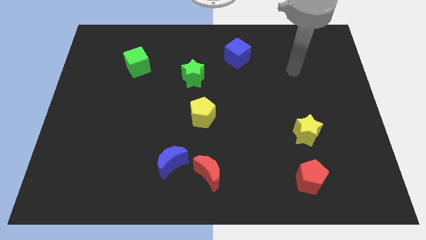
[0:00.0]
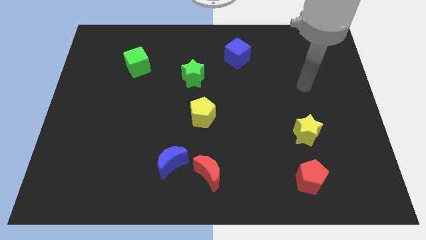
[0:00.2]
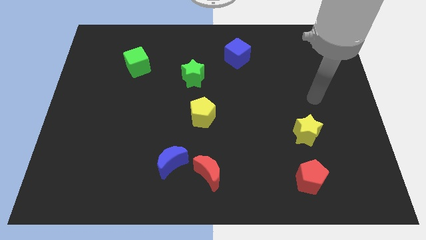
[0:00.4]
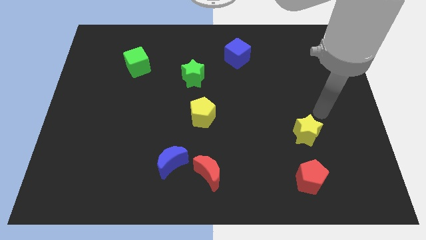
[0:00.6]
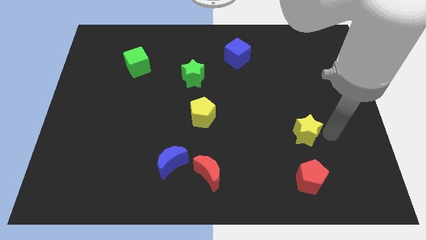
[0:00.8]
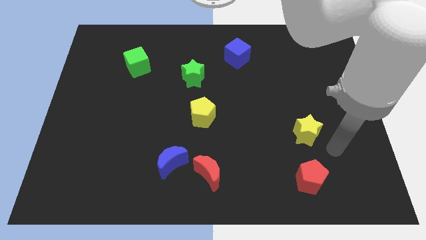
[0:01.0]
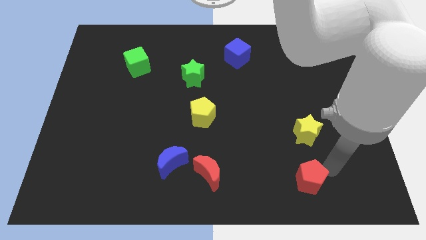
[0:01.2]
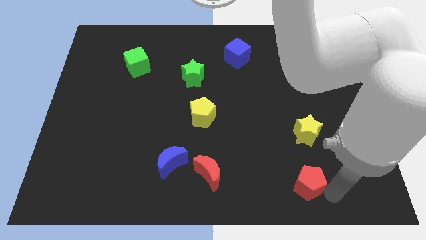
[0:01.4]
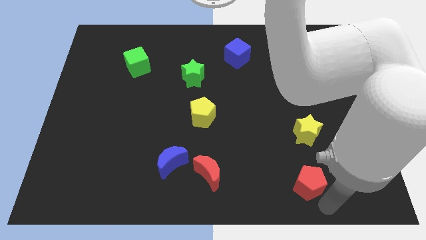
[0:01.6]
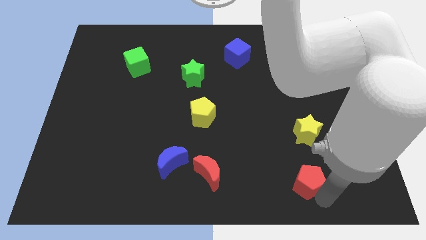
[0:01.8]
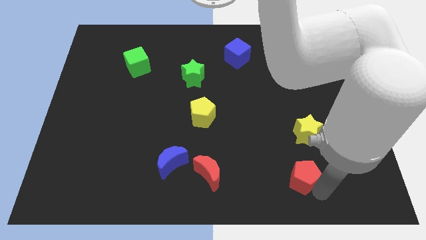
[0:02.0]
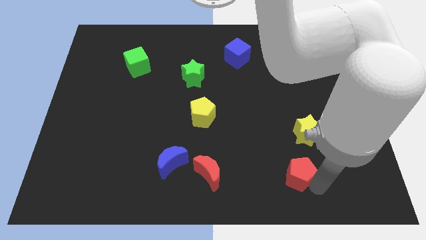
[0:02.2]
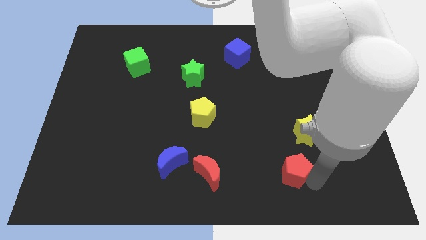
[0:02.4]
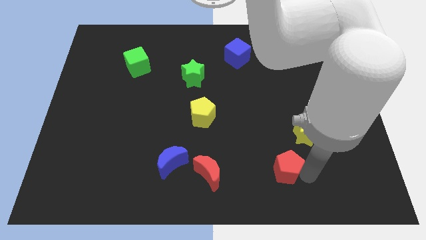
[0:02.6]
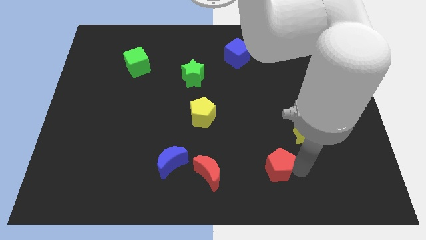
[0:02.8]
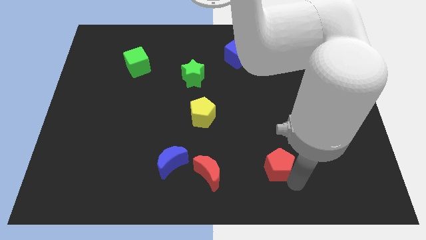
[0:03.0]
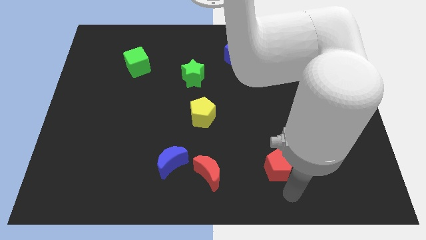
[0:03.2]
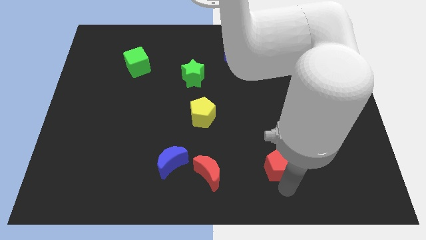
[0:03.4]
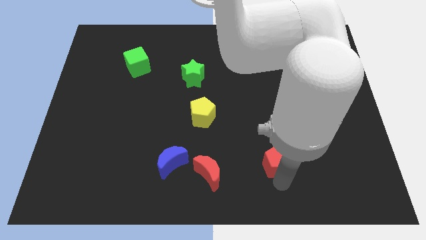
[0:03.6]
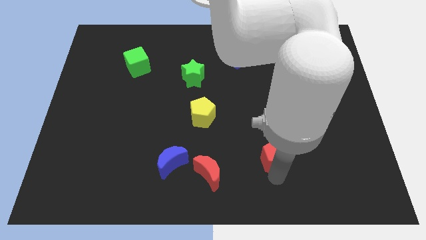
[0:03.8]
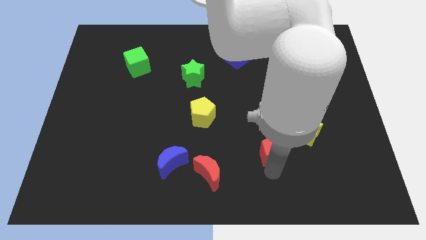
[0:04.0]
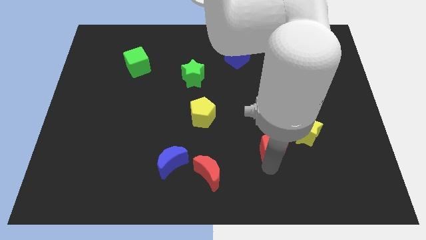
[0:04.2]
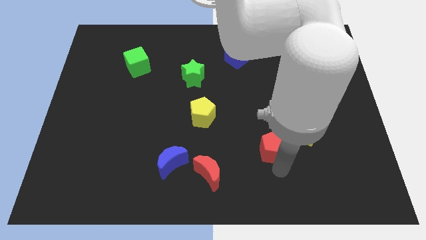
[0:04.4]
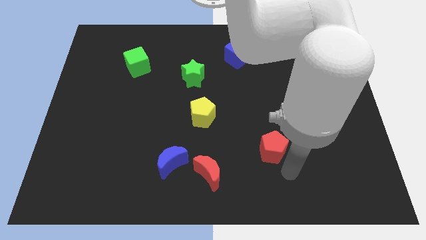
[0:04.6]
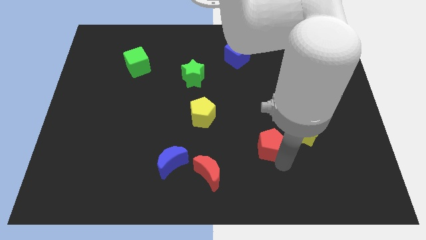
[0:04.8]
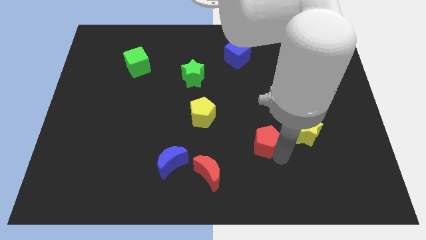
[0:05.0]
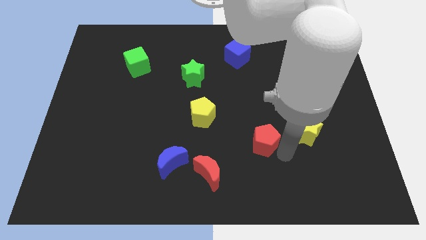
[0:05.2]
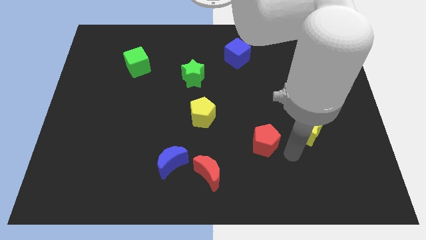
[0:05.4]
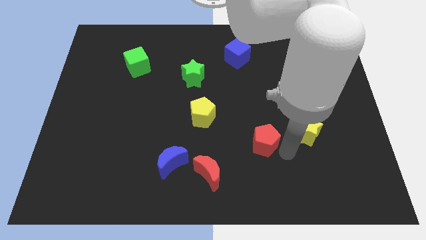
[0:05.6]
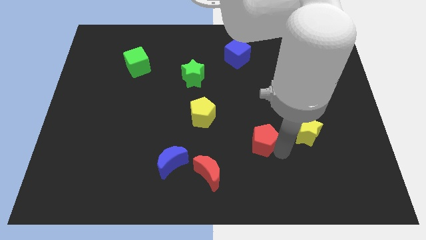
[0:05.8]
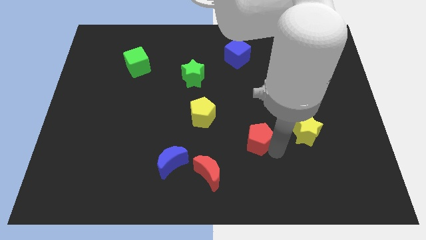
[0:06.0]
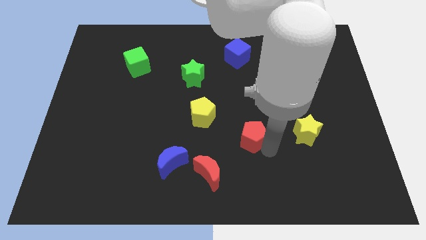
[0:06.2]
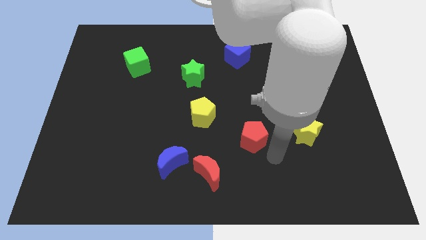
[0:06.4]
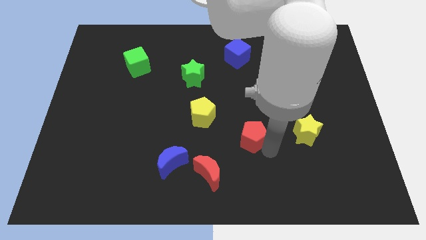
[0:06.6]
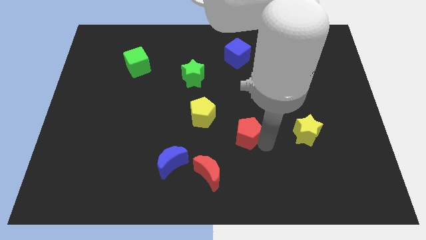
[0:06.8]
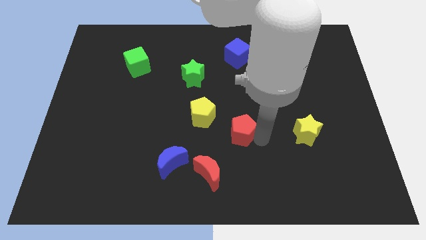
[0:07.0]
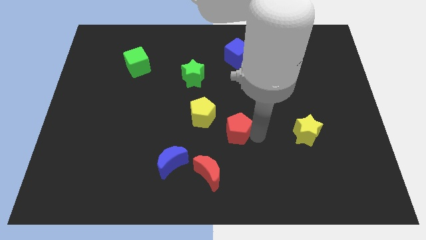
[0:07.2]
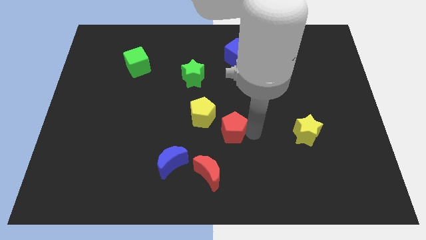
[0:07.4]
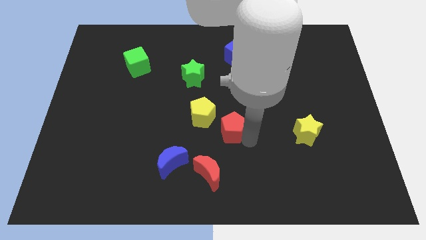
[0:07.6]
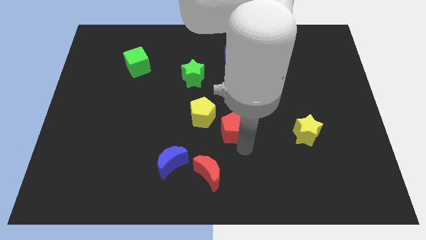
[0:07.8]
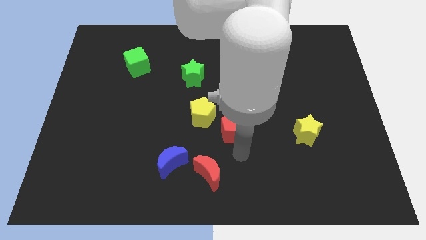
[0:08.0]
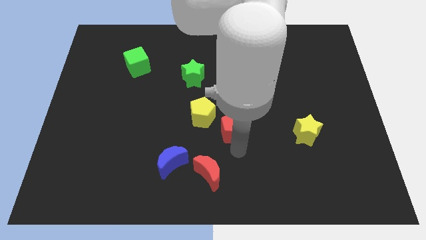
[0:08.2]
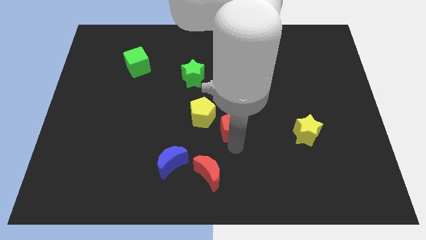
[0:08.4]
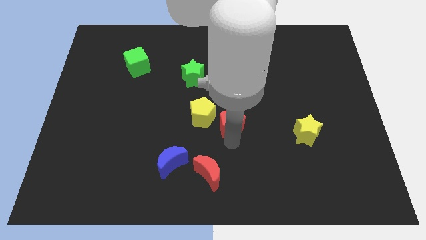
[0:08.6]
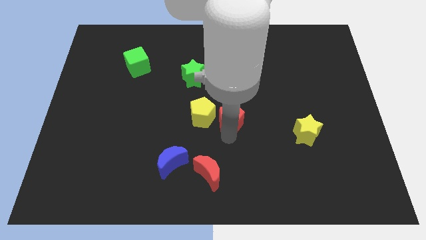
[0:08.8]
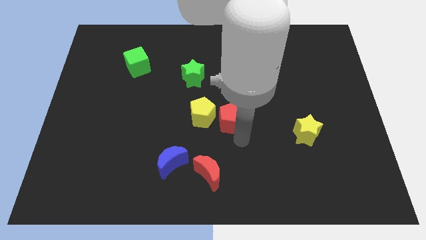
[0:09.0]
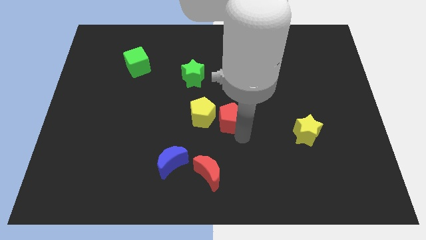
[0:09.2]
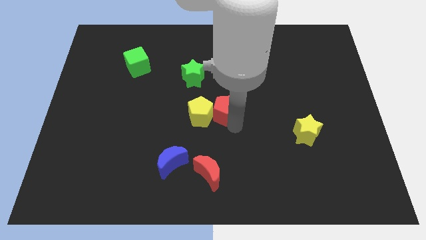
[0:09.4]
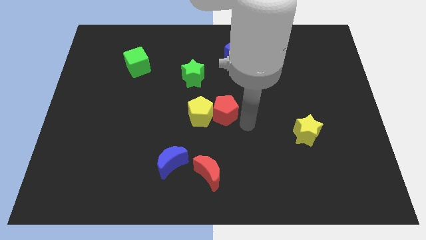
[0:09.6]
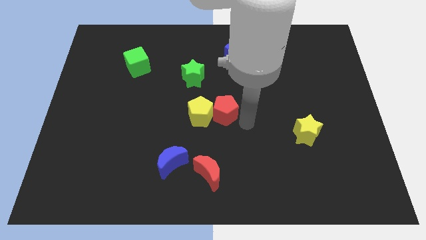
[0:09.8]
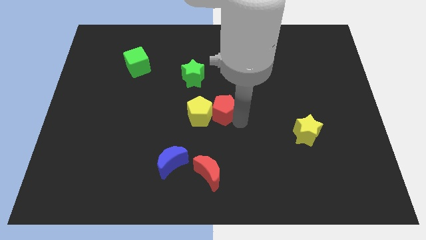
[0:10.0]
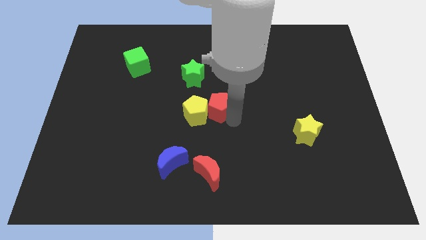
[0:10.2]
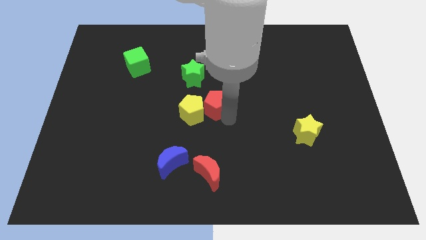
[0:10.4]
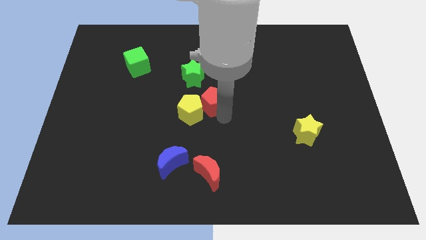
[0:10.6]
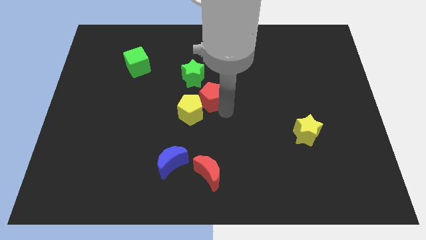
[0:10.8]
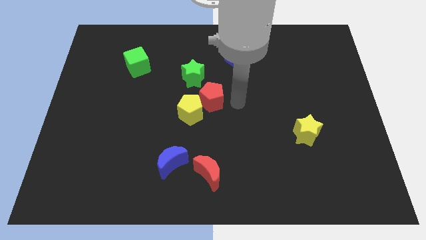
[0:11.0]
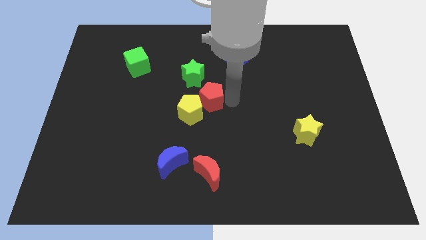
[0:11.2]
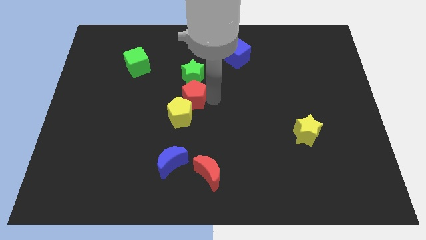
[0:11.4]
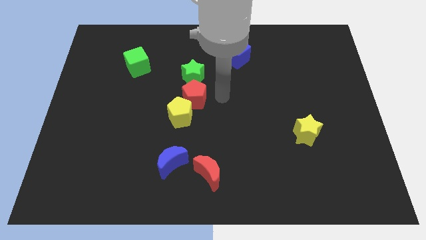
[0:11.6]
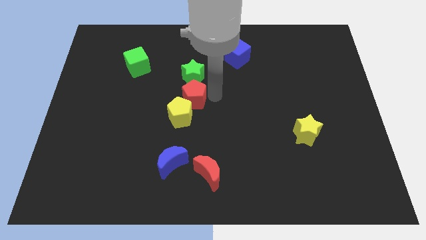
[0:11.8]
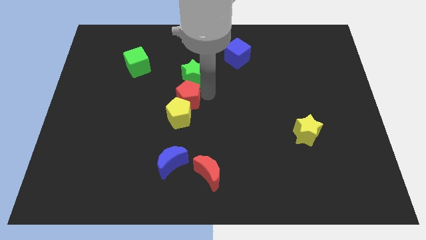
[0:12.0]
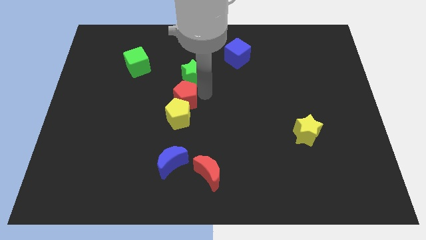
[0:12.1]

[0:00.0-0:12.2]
slide the red pentagon to the top left of the yellow pentagon

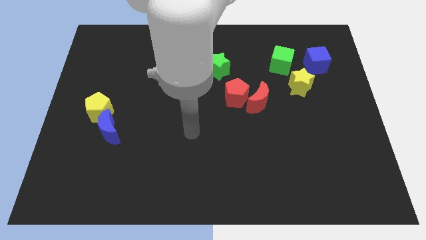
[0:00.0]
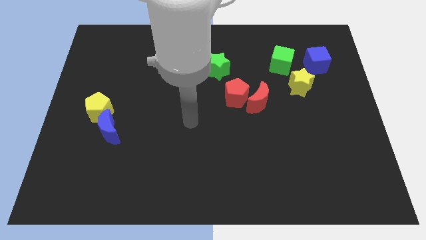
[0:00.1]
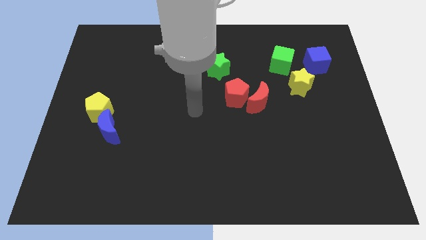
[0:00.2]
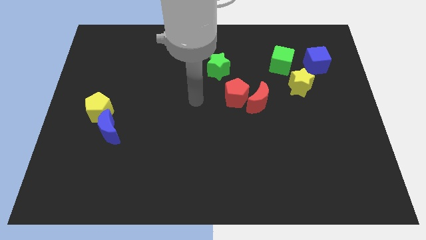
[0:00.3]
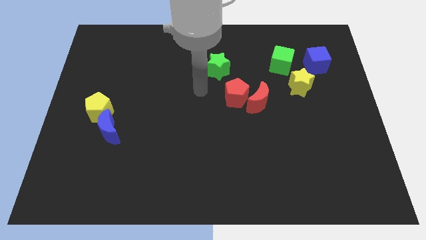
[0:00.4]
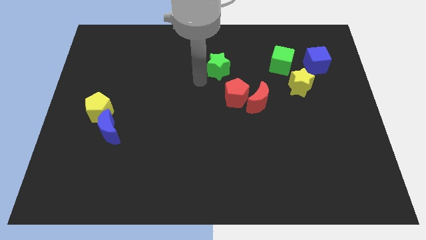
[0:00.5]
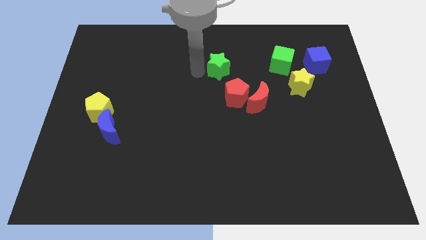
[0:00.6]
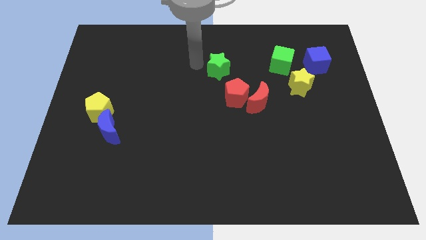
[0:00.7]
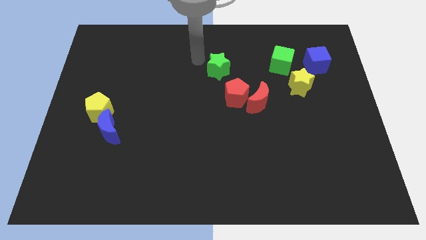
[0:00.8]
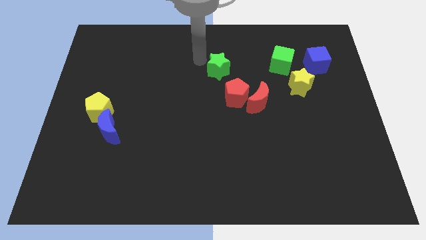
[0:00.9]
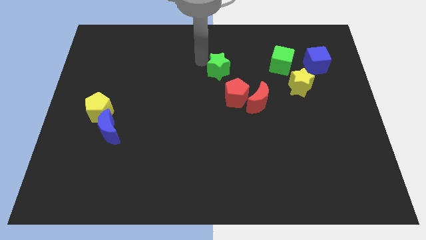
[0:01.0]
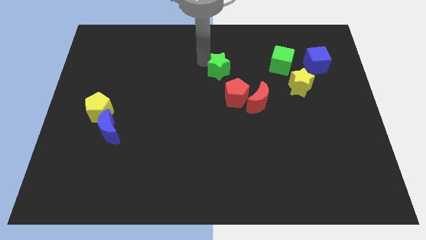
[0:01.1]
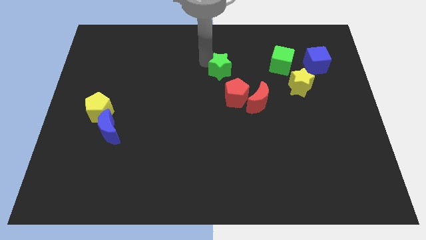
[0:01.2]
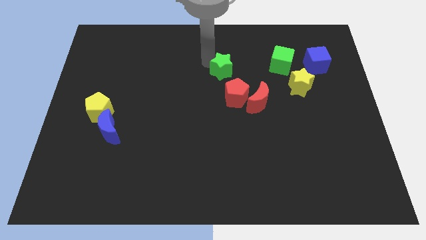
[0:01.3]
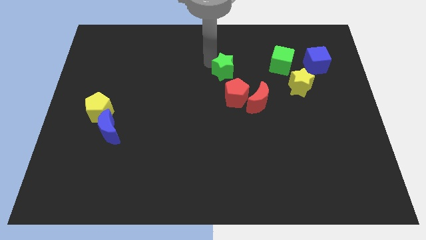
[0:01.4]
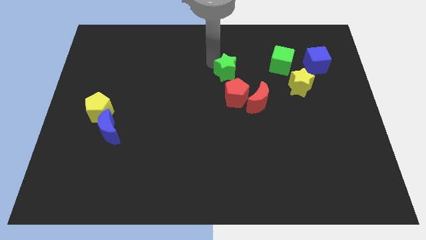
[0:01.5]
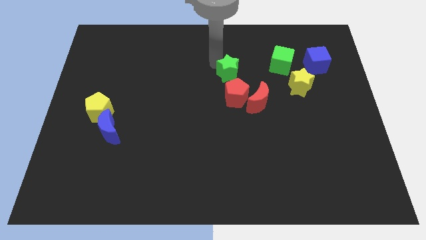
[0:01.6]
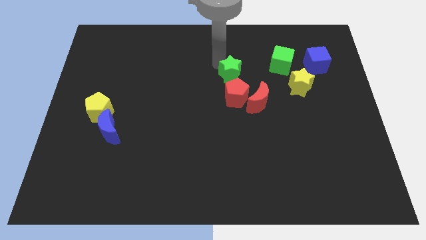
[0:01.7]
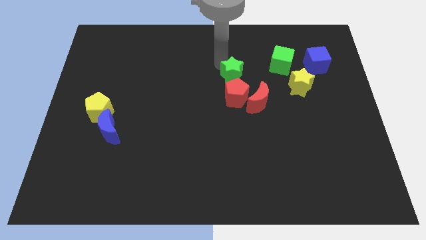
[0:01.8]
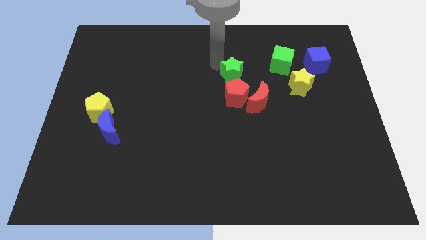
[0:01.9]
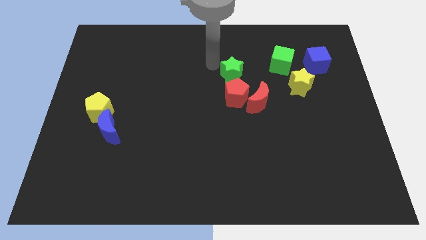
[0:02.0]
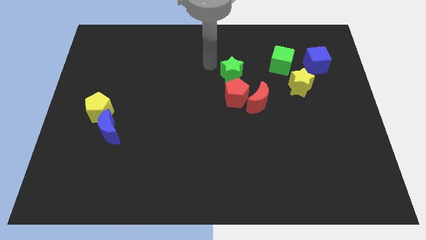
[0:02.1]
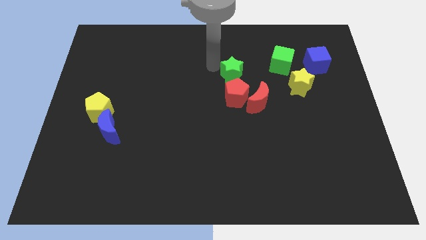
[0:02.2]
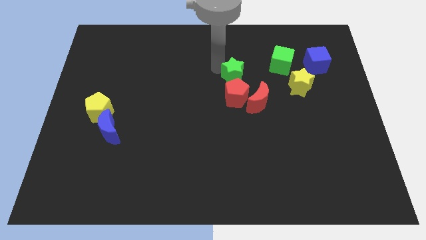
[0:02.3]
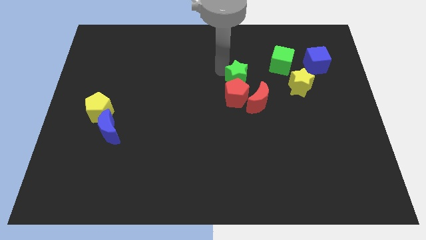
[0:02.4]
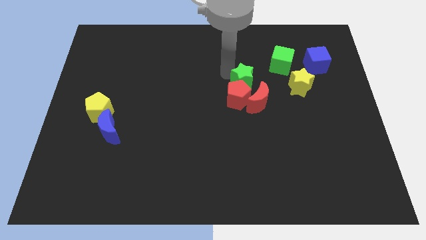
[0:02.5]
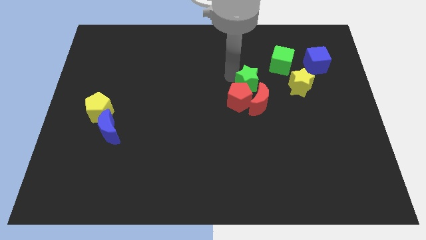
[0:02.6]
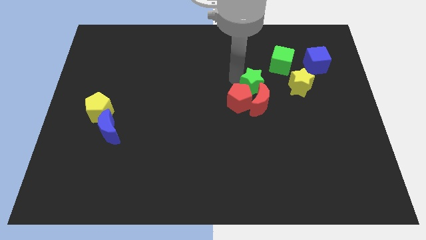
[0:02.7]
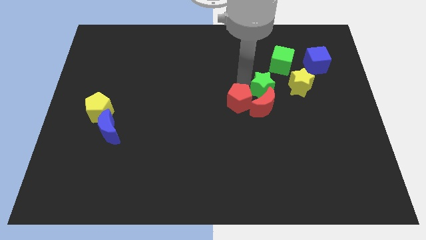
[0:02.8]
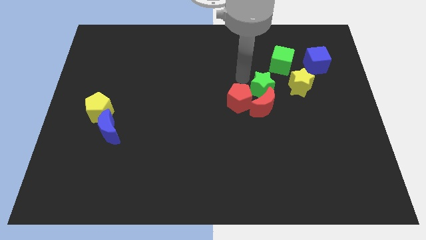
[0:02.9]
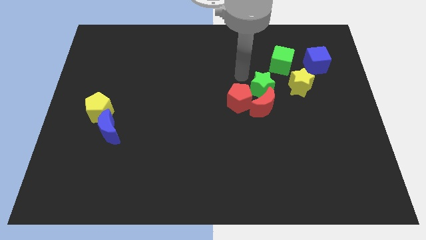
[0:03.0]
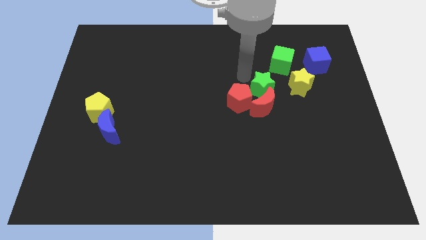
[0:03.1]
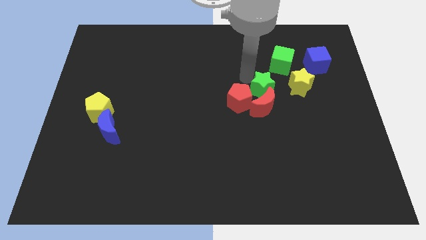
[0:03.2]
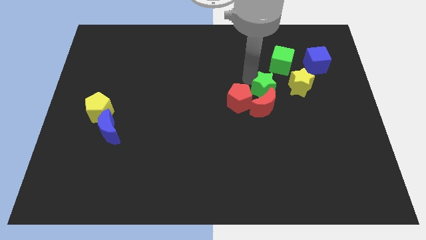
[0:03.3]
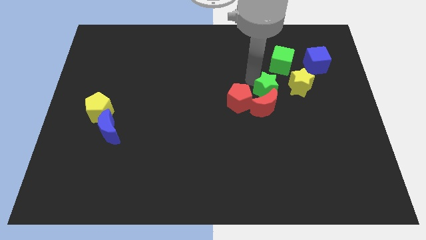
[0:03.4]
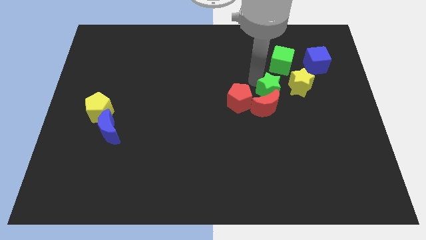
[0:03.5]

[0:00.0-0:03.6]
move the green star to the bottom left of the yellow star
